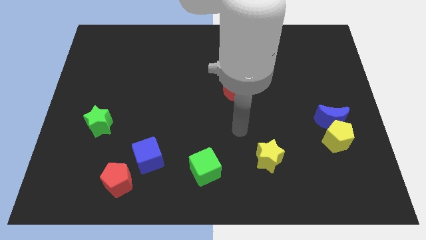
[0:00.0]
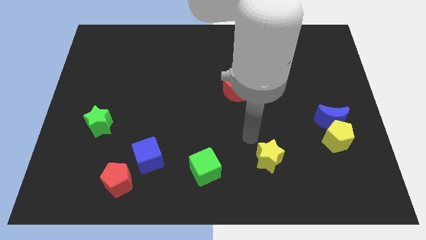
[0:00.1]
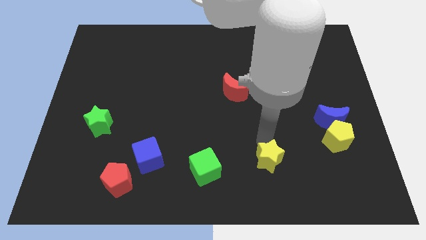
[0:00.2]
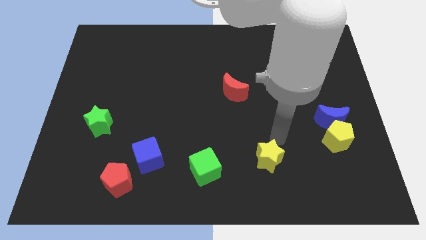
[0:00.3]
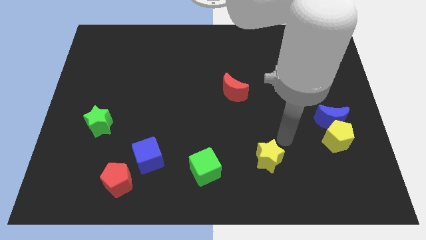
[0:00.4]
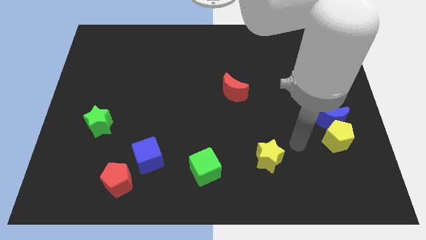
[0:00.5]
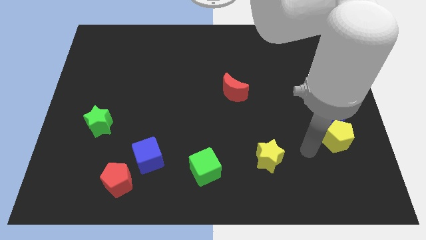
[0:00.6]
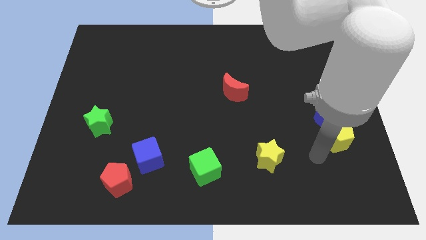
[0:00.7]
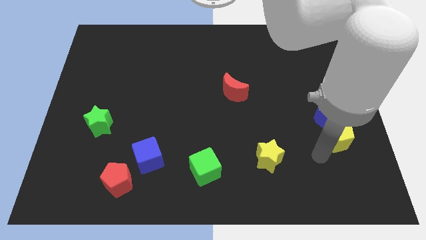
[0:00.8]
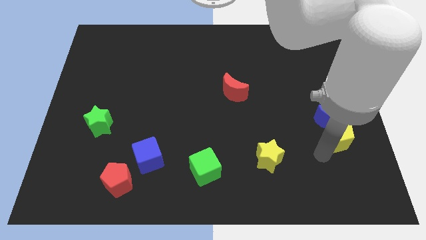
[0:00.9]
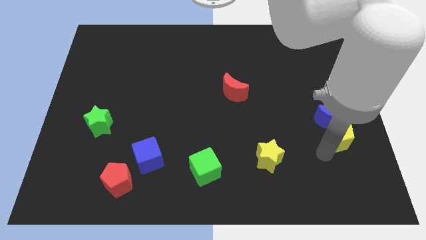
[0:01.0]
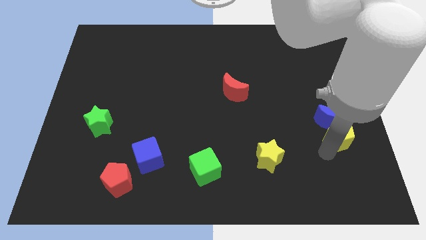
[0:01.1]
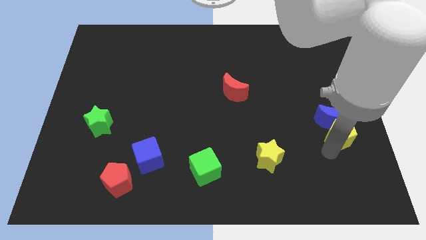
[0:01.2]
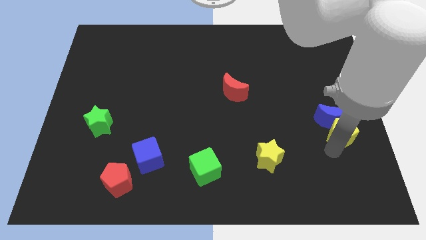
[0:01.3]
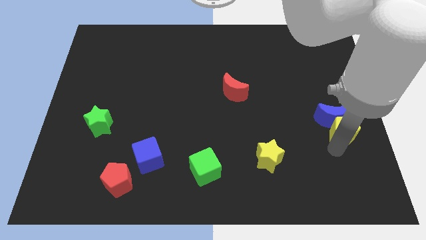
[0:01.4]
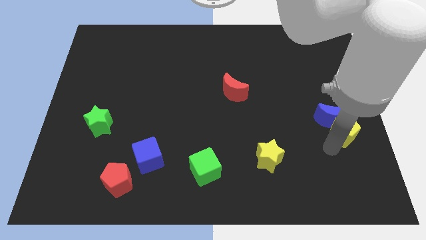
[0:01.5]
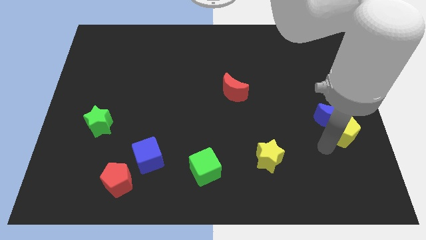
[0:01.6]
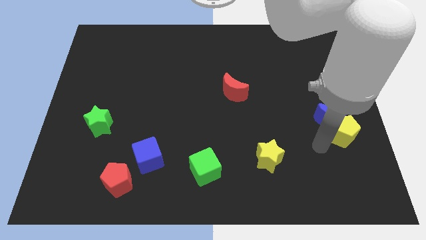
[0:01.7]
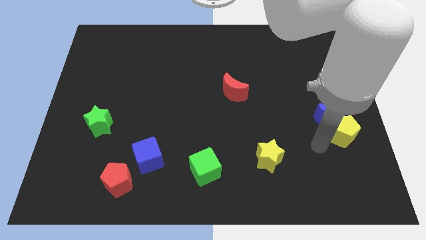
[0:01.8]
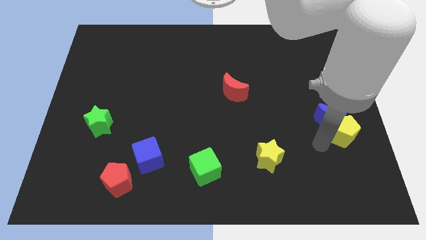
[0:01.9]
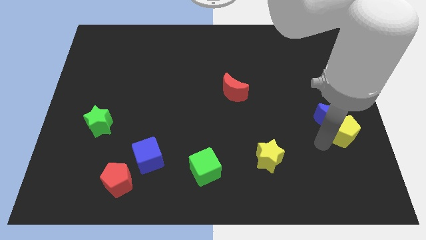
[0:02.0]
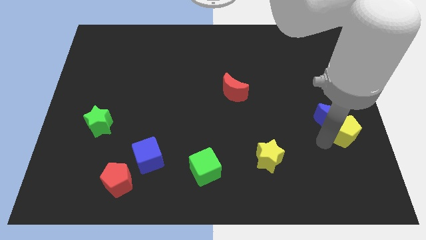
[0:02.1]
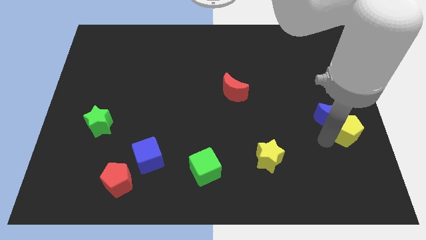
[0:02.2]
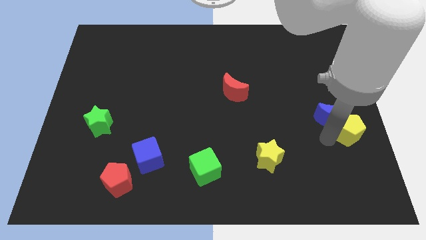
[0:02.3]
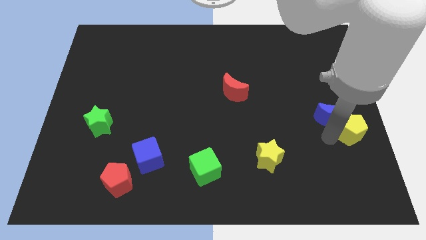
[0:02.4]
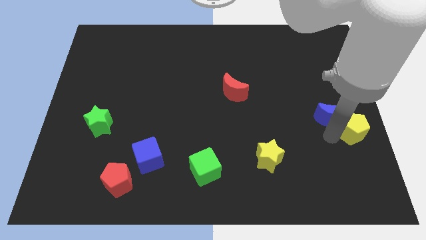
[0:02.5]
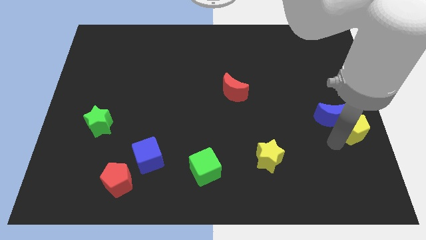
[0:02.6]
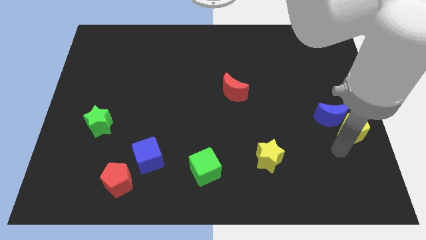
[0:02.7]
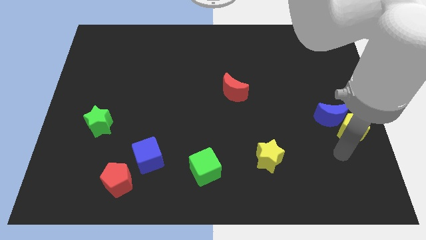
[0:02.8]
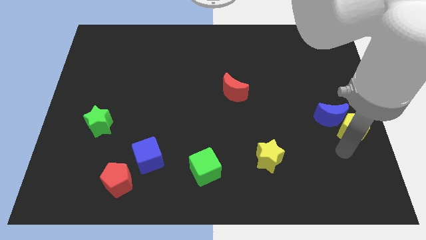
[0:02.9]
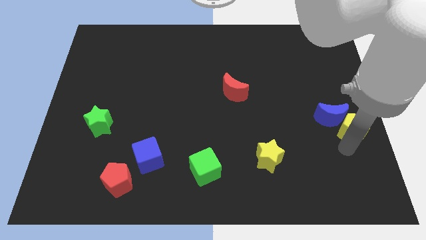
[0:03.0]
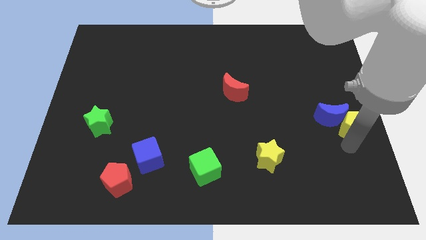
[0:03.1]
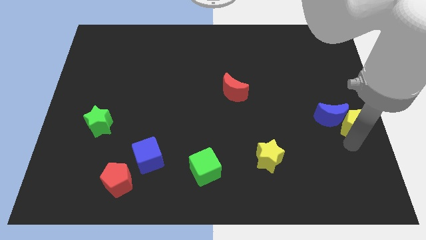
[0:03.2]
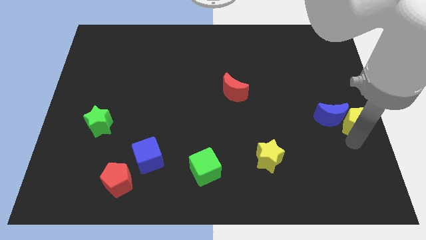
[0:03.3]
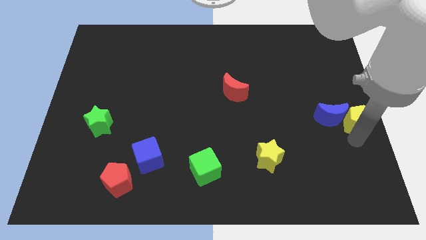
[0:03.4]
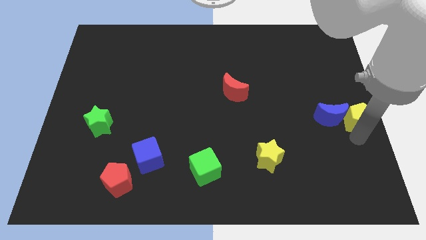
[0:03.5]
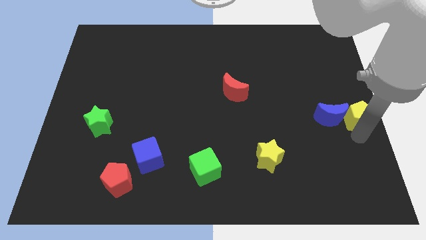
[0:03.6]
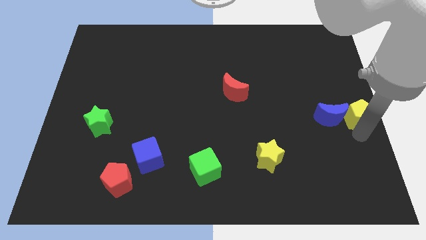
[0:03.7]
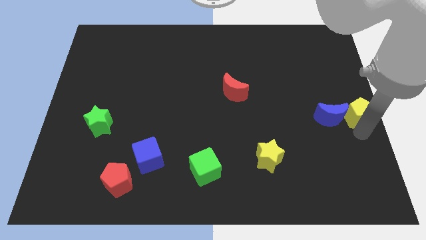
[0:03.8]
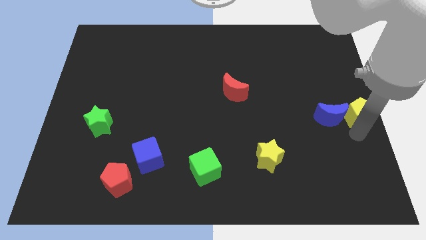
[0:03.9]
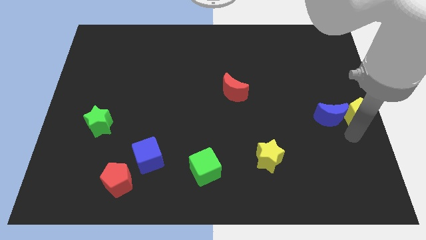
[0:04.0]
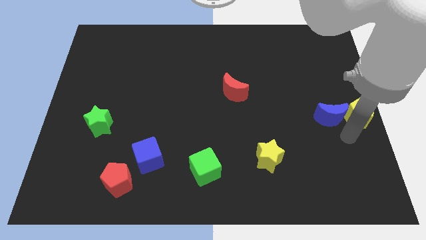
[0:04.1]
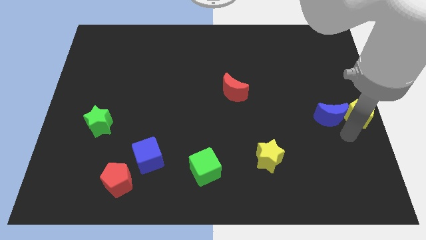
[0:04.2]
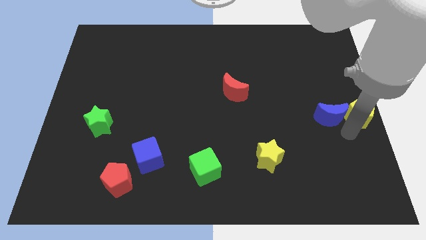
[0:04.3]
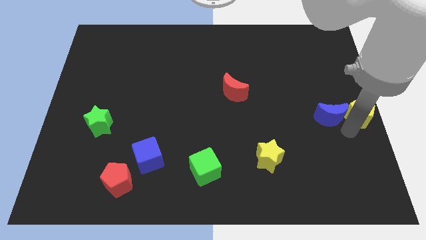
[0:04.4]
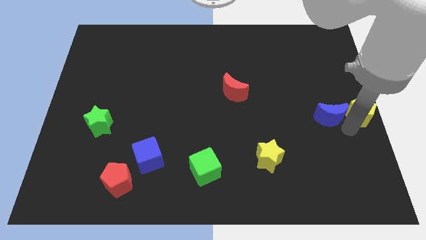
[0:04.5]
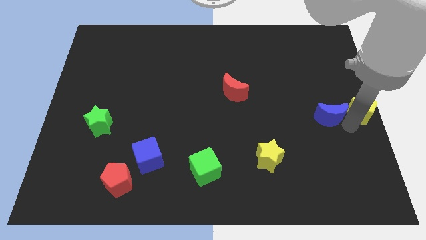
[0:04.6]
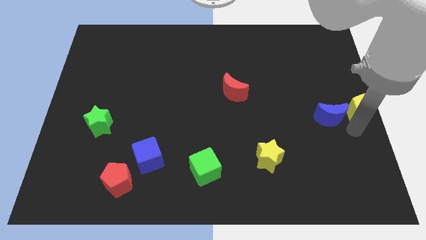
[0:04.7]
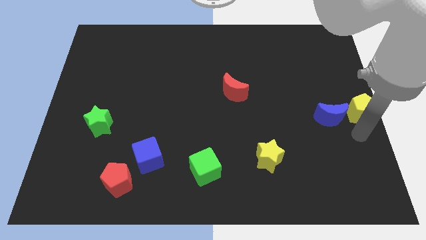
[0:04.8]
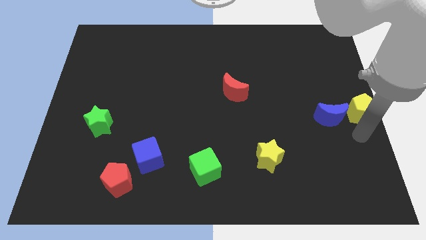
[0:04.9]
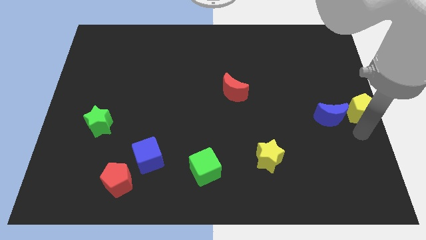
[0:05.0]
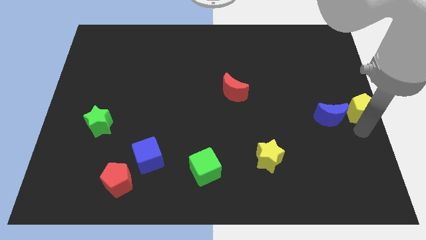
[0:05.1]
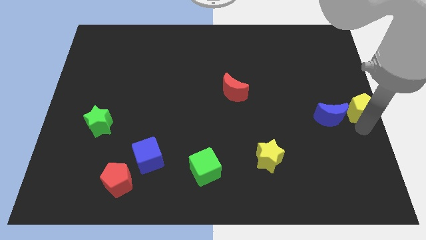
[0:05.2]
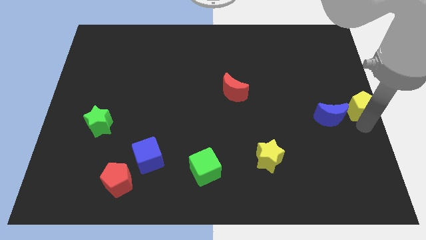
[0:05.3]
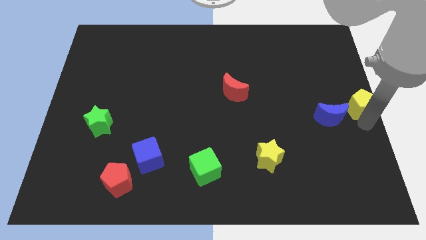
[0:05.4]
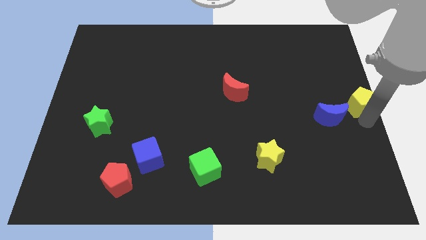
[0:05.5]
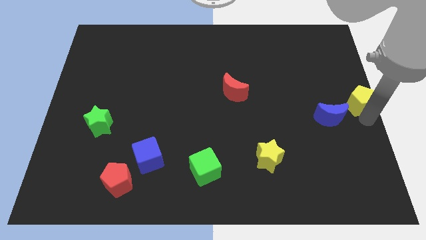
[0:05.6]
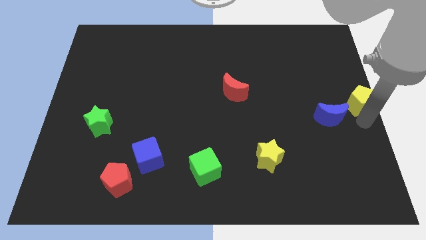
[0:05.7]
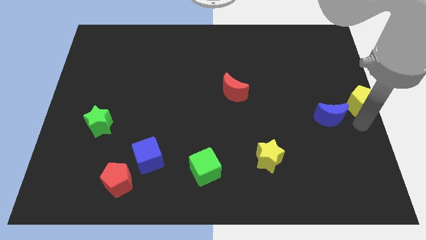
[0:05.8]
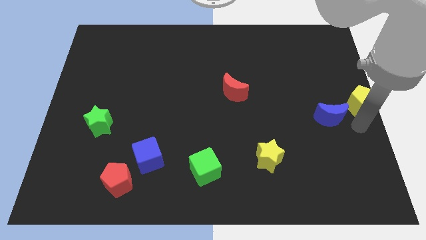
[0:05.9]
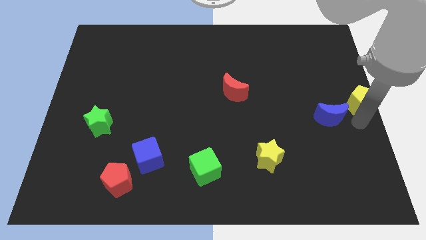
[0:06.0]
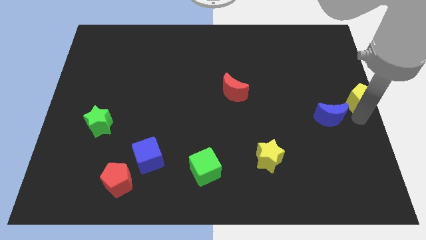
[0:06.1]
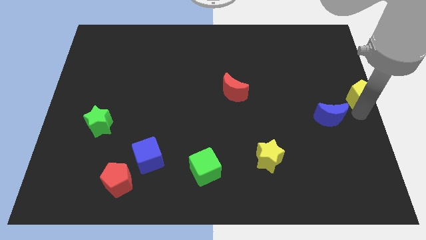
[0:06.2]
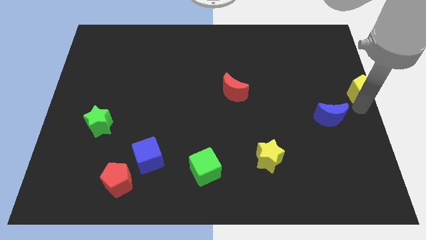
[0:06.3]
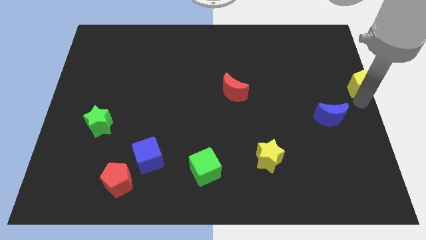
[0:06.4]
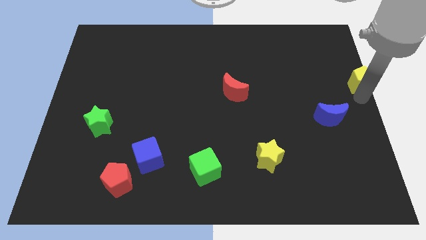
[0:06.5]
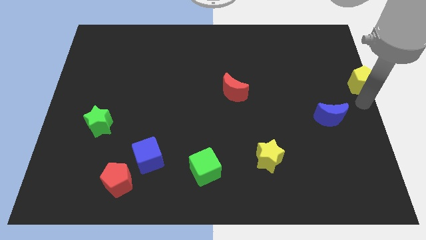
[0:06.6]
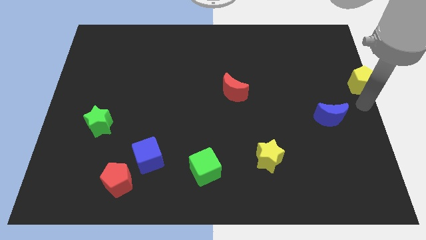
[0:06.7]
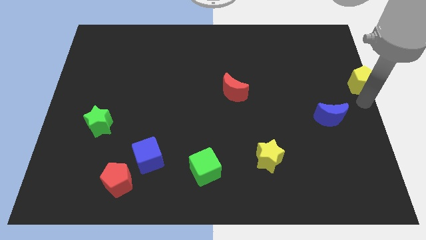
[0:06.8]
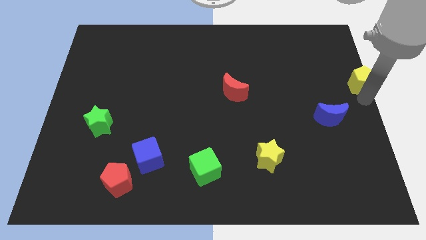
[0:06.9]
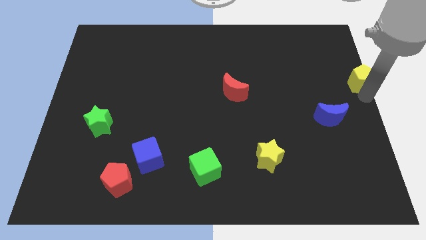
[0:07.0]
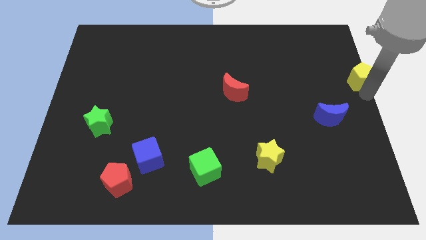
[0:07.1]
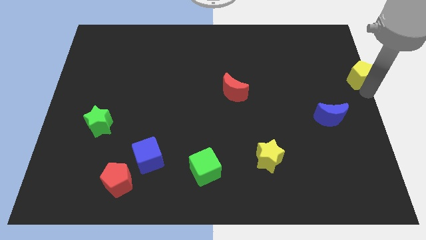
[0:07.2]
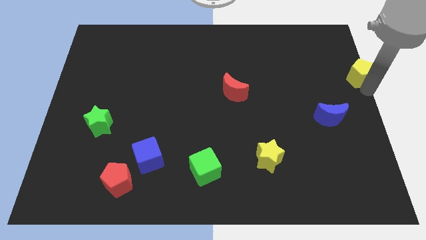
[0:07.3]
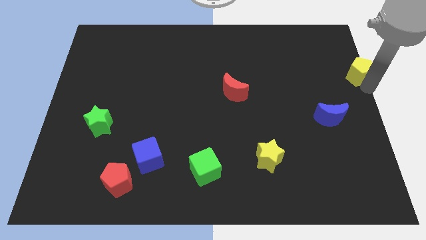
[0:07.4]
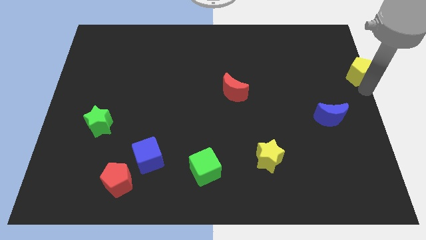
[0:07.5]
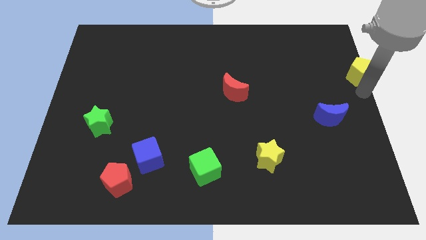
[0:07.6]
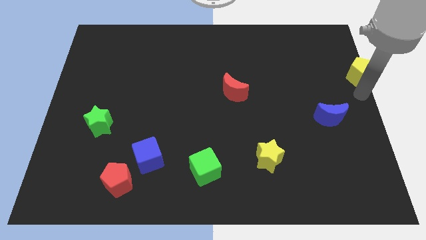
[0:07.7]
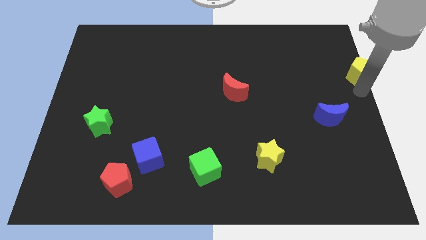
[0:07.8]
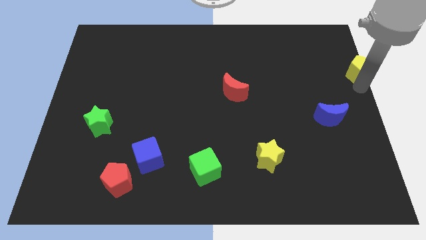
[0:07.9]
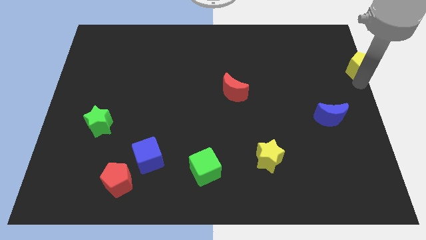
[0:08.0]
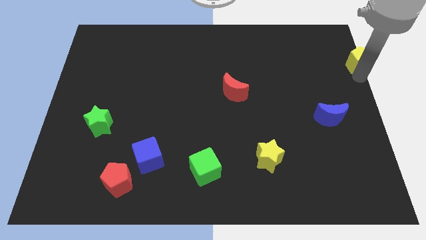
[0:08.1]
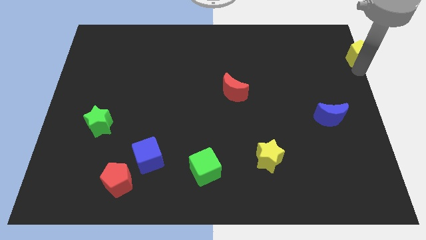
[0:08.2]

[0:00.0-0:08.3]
move the yellow pentagon to the top right corner
